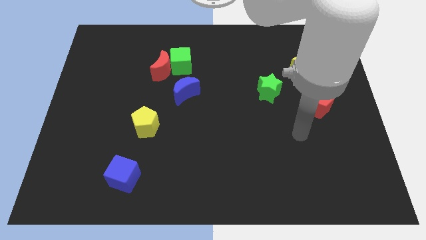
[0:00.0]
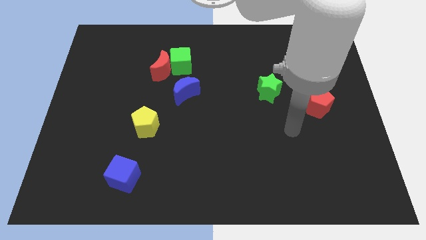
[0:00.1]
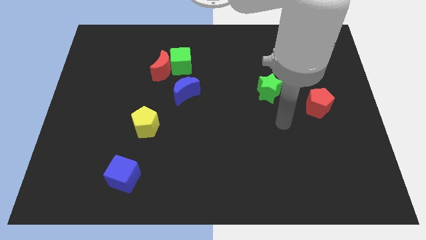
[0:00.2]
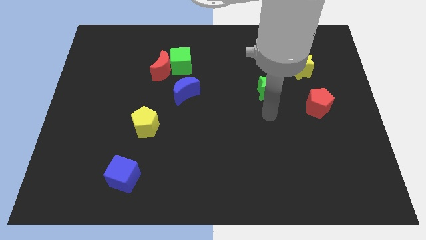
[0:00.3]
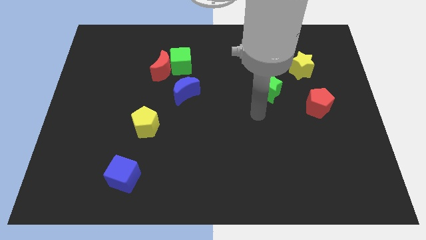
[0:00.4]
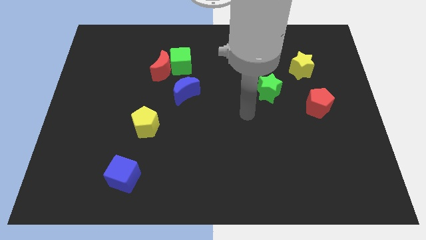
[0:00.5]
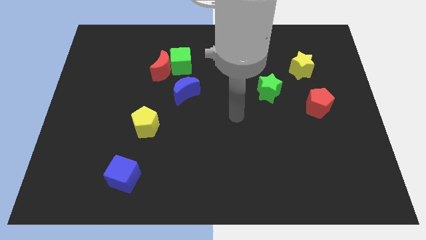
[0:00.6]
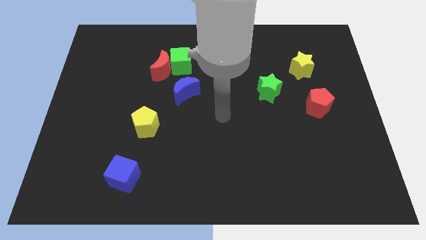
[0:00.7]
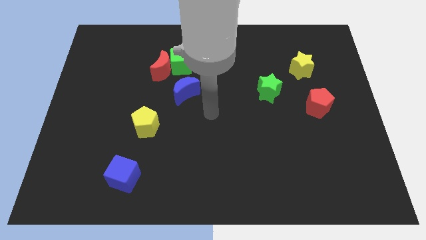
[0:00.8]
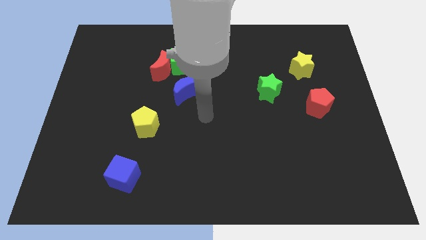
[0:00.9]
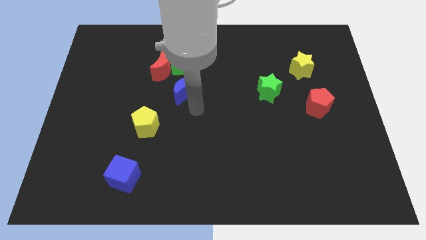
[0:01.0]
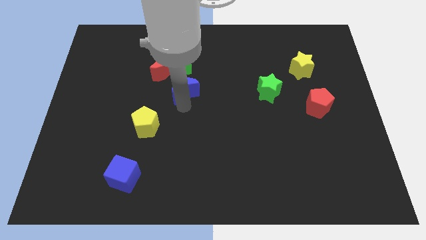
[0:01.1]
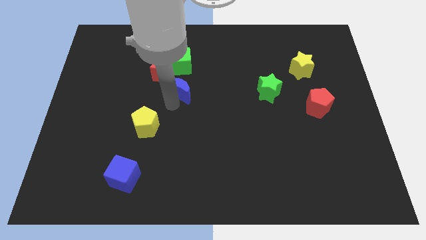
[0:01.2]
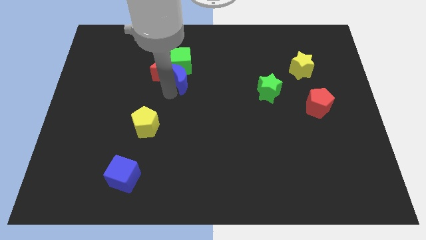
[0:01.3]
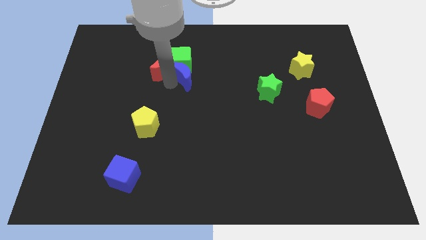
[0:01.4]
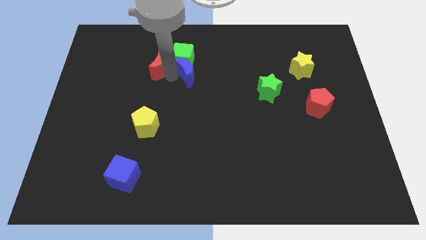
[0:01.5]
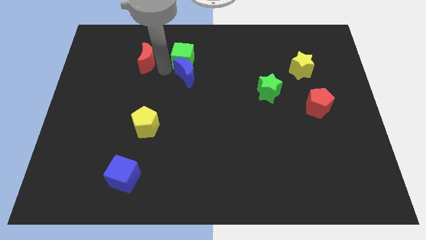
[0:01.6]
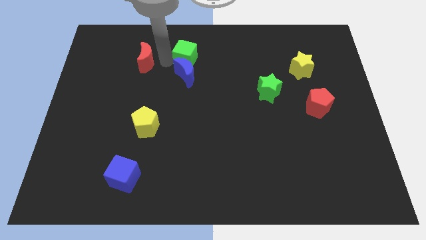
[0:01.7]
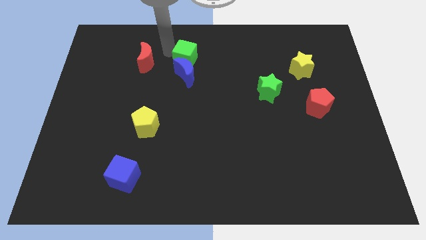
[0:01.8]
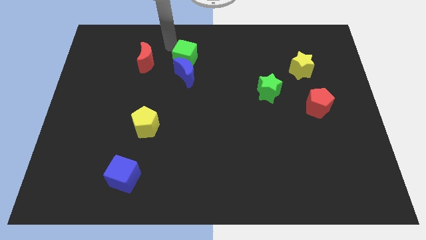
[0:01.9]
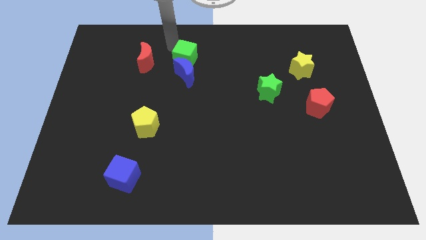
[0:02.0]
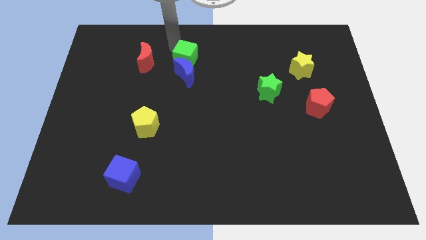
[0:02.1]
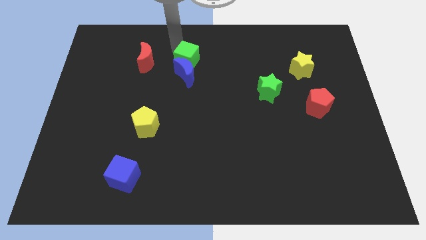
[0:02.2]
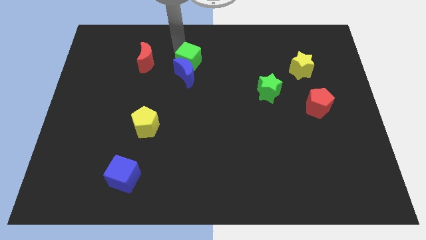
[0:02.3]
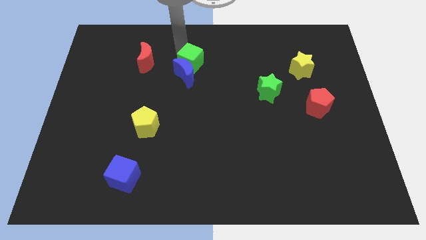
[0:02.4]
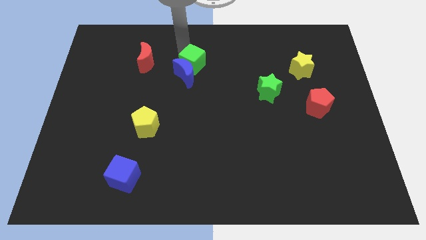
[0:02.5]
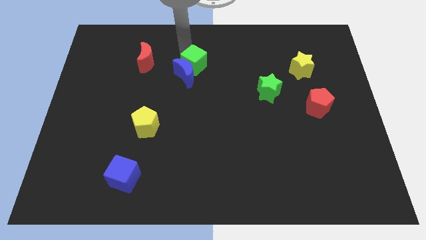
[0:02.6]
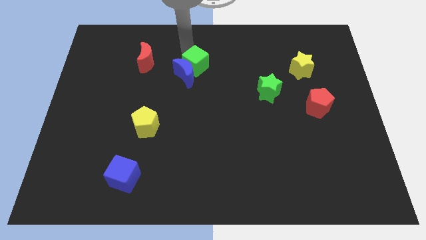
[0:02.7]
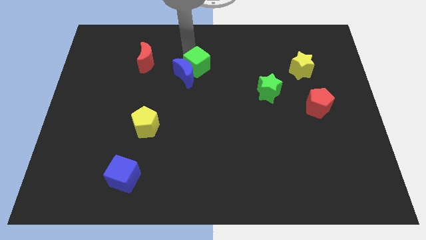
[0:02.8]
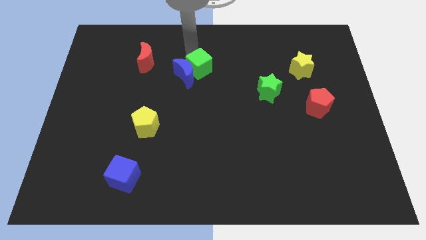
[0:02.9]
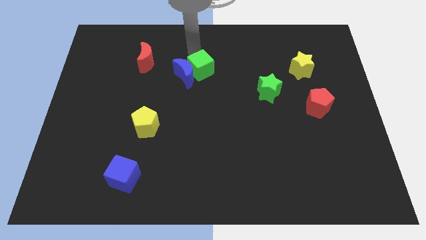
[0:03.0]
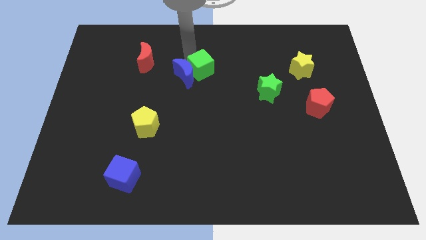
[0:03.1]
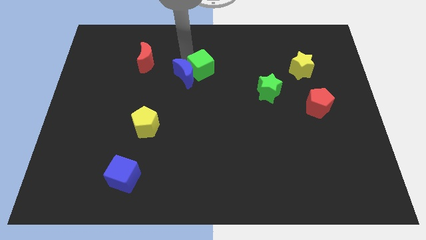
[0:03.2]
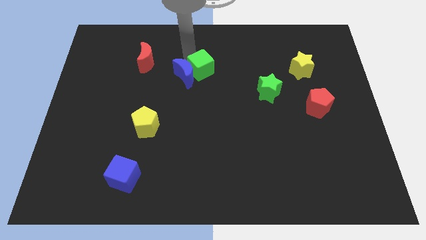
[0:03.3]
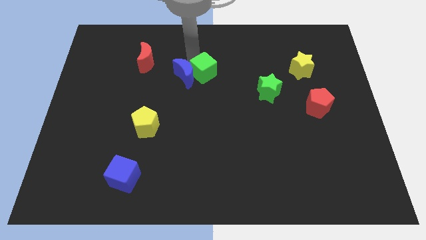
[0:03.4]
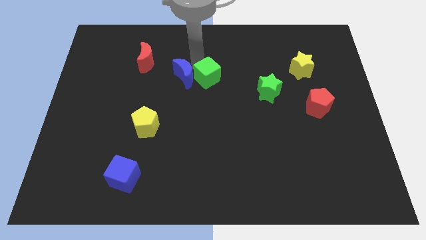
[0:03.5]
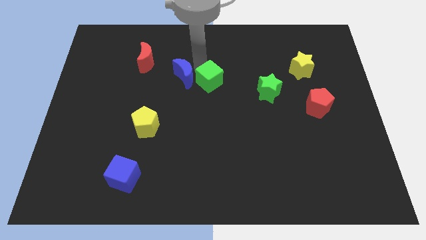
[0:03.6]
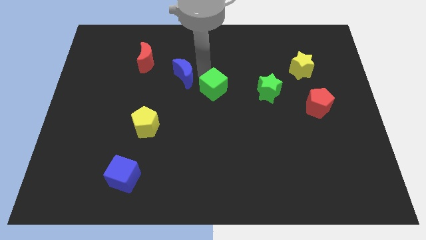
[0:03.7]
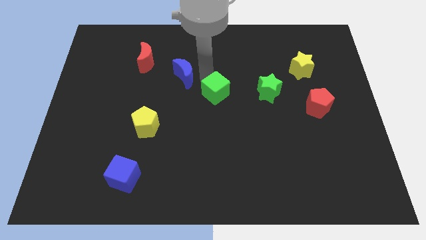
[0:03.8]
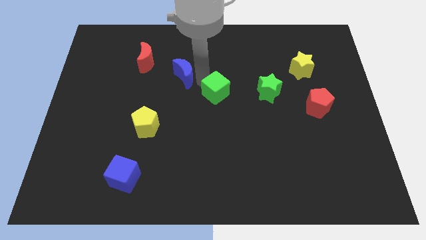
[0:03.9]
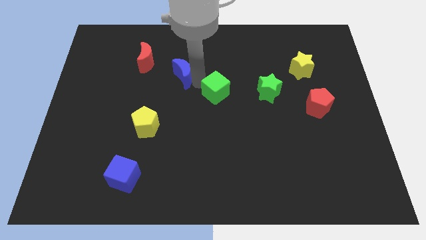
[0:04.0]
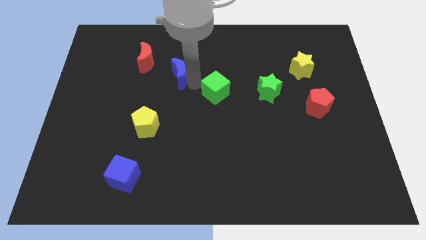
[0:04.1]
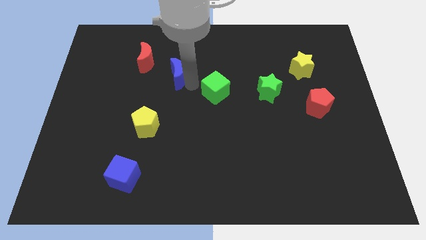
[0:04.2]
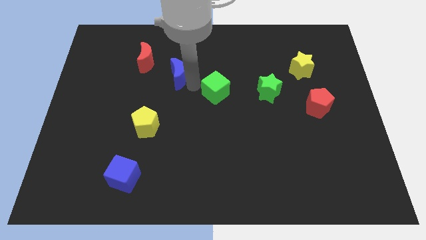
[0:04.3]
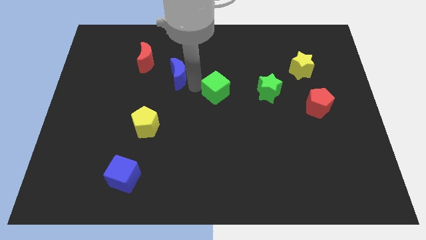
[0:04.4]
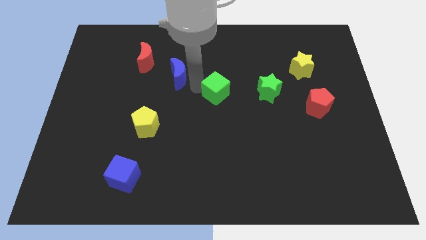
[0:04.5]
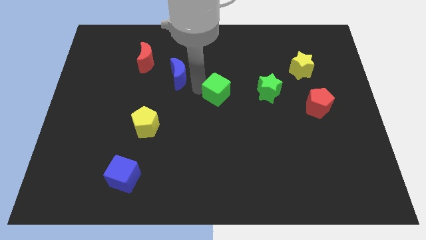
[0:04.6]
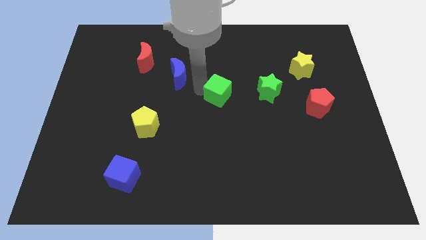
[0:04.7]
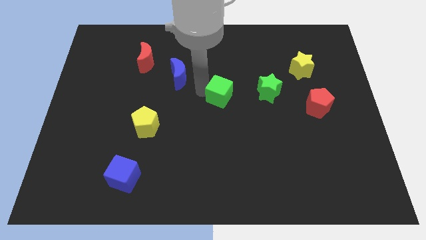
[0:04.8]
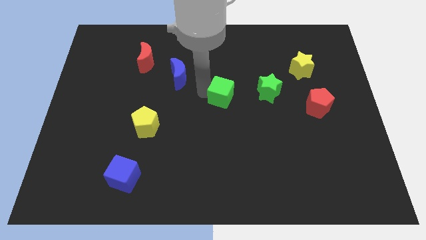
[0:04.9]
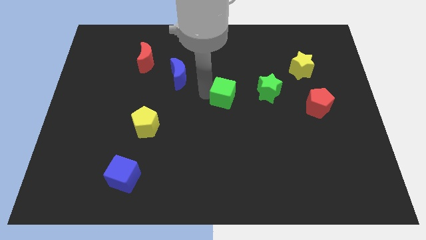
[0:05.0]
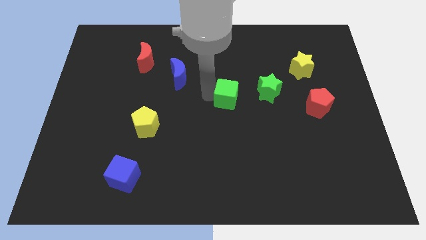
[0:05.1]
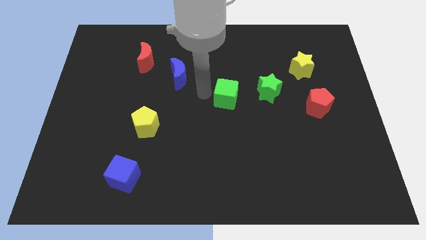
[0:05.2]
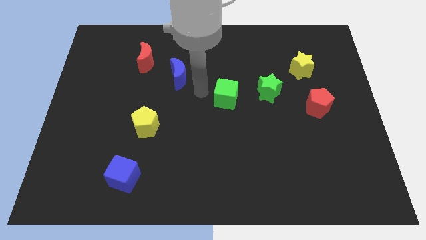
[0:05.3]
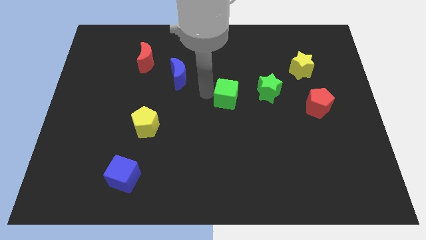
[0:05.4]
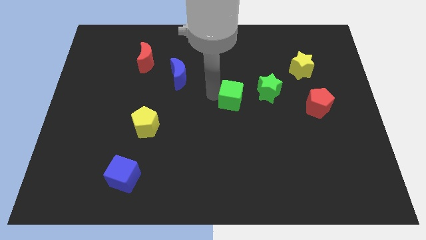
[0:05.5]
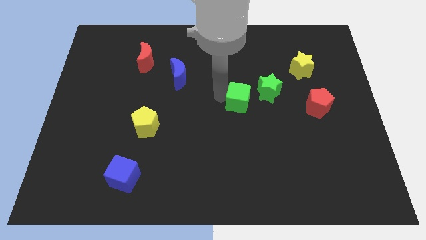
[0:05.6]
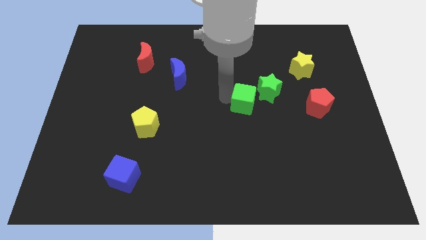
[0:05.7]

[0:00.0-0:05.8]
move the green cube down and right diagonally

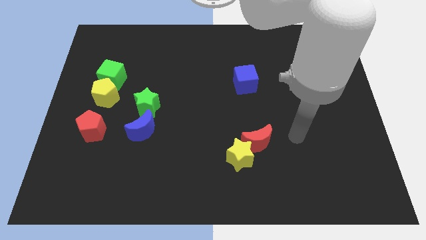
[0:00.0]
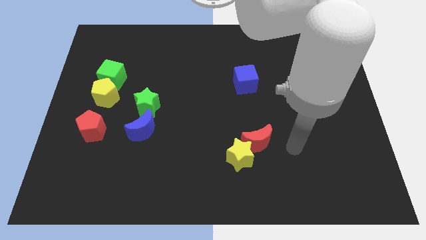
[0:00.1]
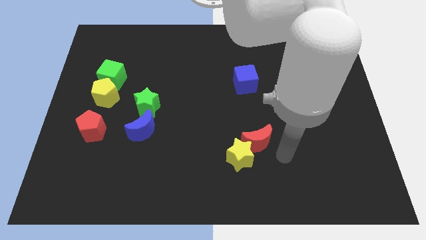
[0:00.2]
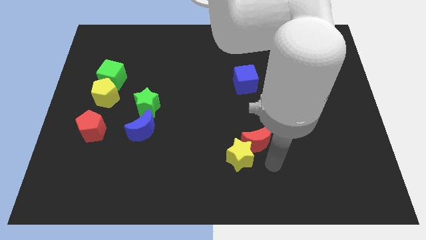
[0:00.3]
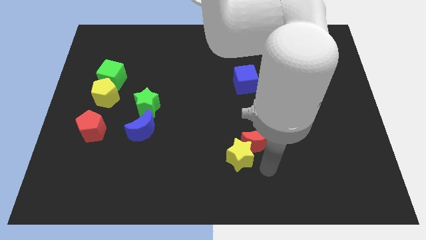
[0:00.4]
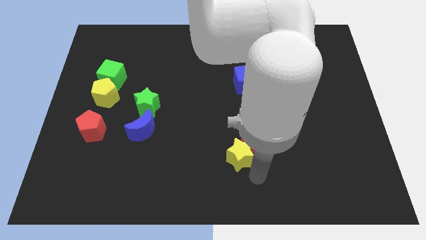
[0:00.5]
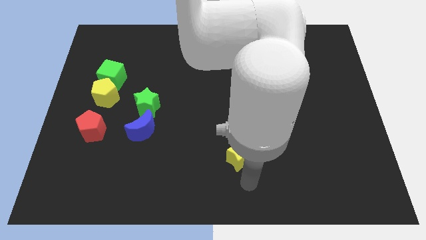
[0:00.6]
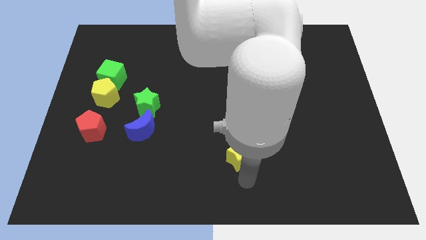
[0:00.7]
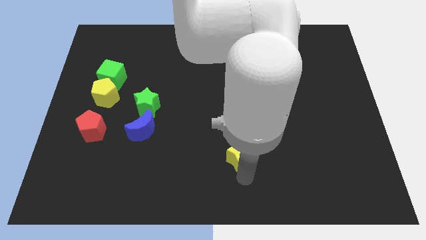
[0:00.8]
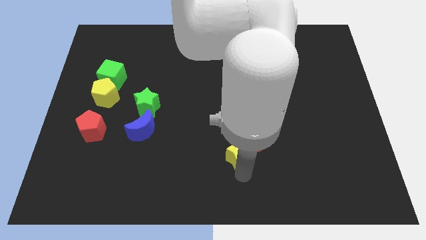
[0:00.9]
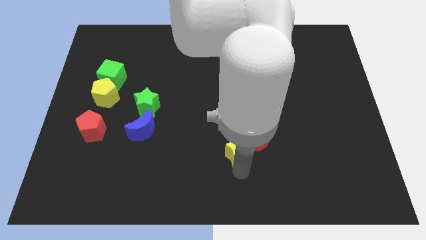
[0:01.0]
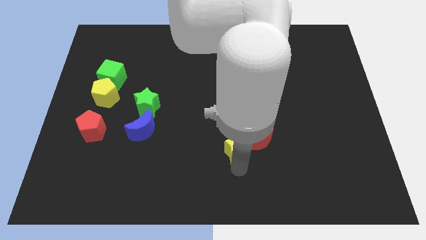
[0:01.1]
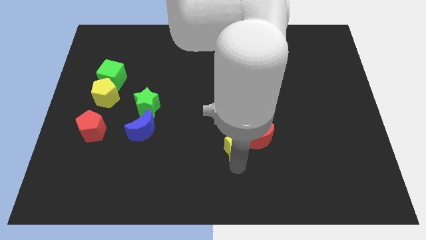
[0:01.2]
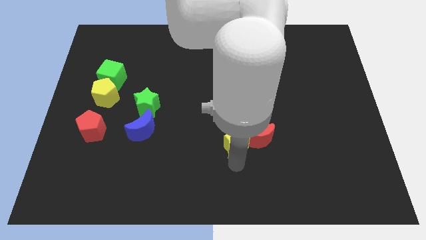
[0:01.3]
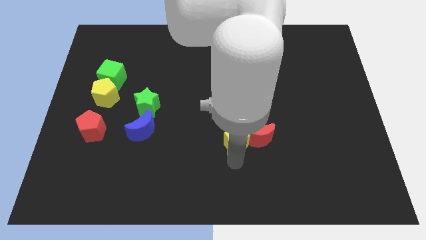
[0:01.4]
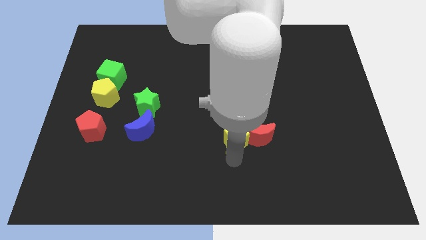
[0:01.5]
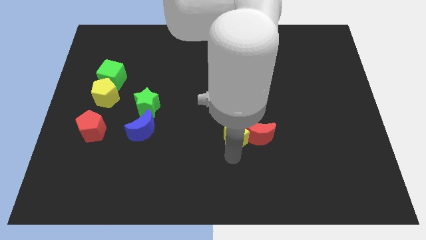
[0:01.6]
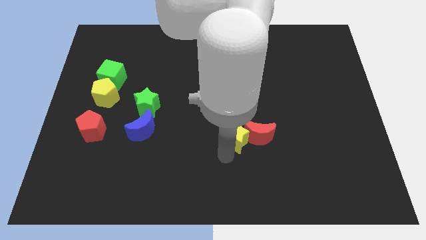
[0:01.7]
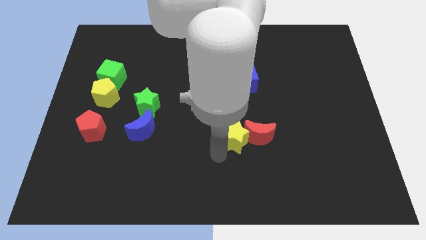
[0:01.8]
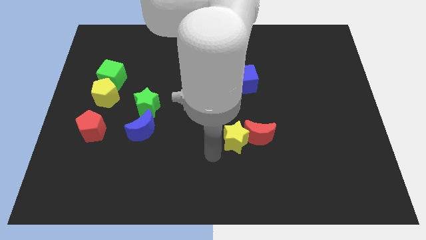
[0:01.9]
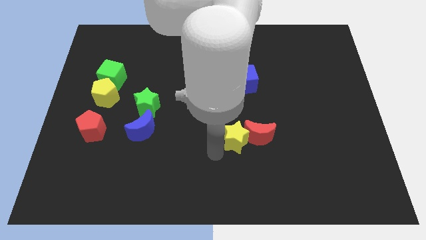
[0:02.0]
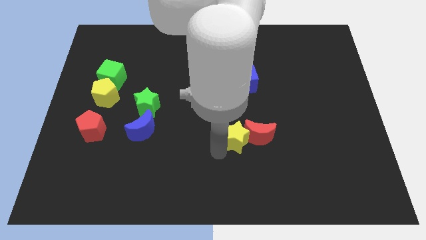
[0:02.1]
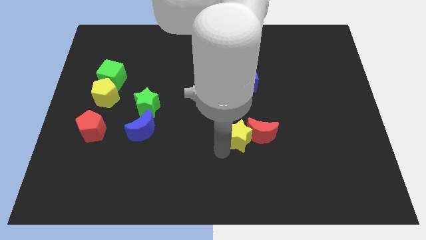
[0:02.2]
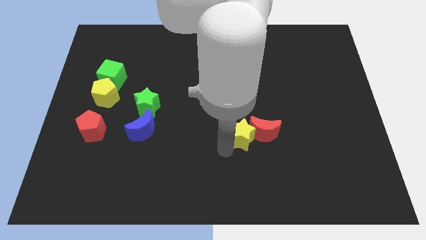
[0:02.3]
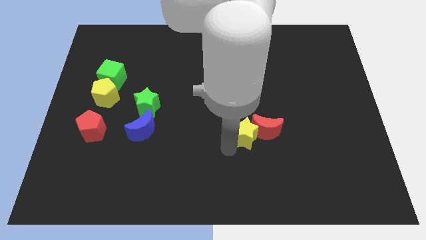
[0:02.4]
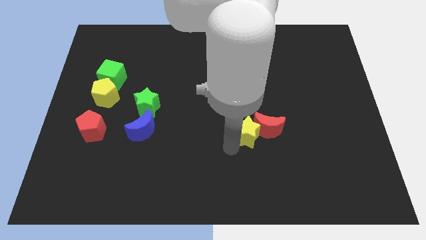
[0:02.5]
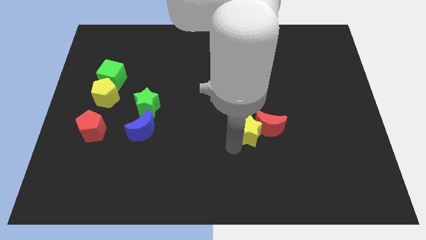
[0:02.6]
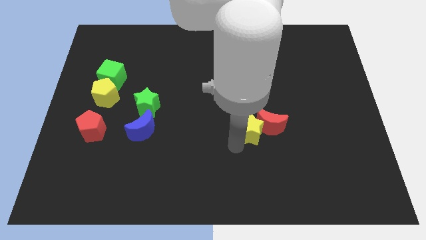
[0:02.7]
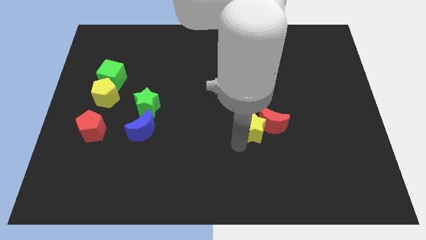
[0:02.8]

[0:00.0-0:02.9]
slightly move the yellow star up and right
